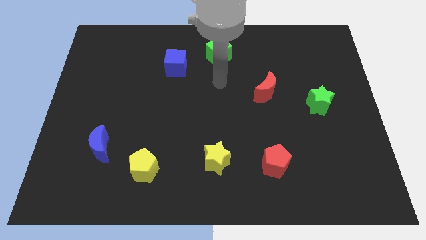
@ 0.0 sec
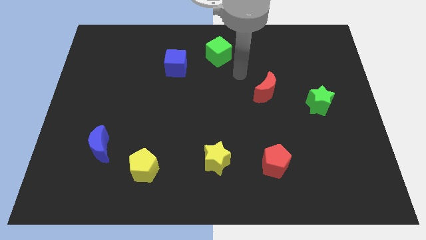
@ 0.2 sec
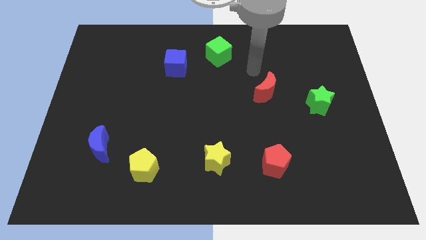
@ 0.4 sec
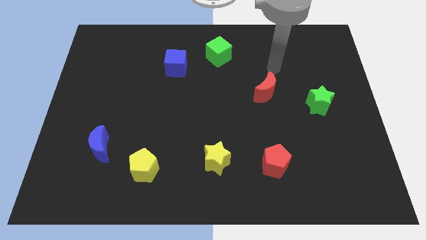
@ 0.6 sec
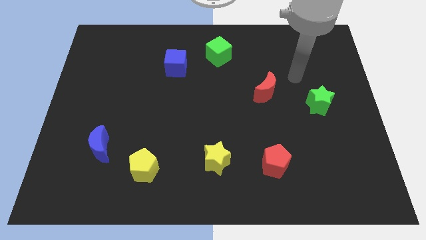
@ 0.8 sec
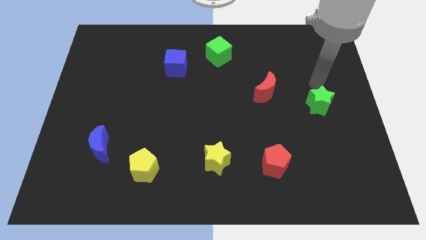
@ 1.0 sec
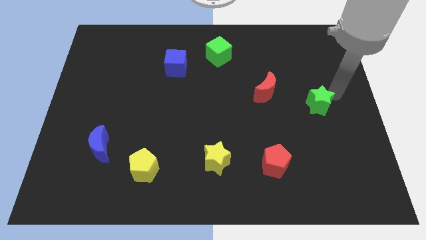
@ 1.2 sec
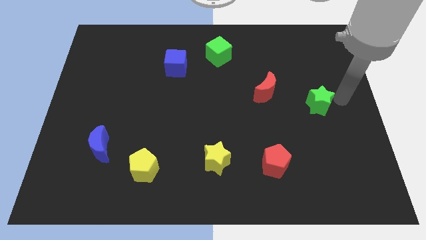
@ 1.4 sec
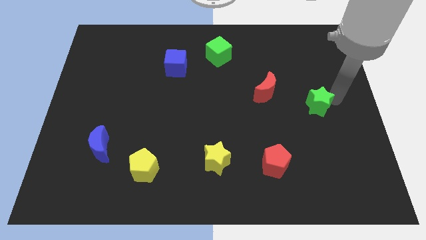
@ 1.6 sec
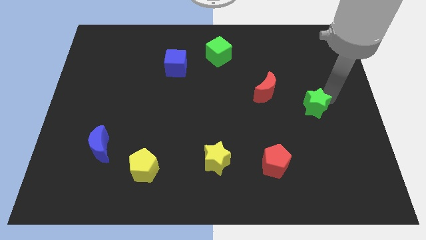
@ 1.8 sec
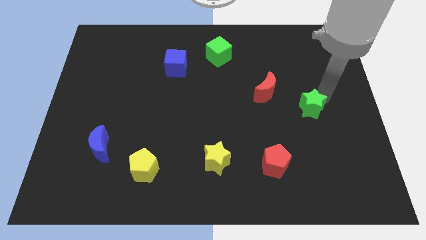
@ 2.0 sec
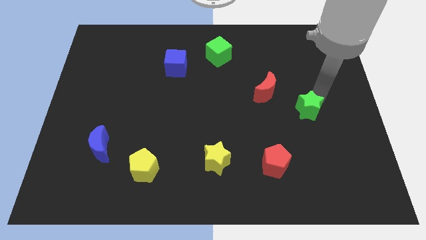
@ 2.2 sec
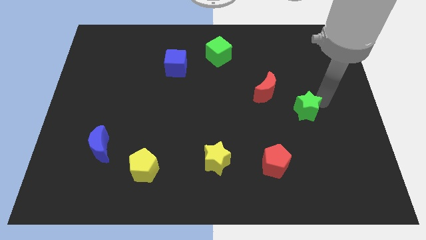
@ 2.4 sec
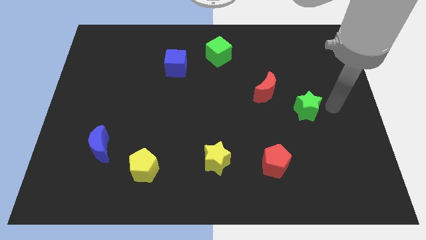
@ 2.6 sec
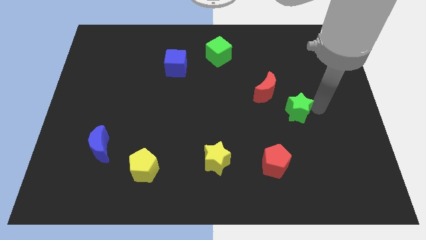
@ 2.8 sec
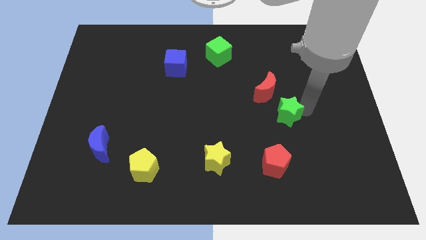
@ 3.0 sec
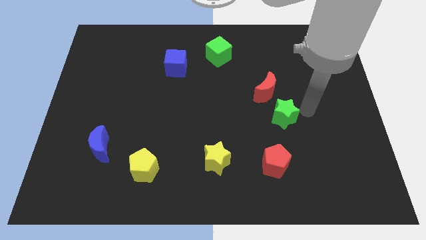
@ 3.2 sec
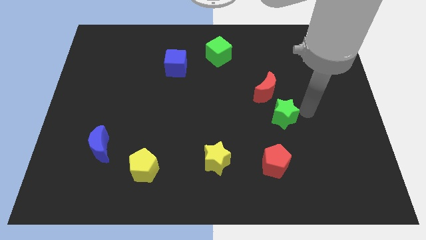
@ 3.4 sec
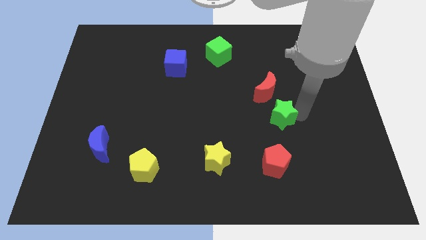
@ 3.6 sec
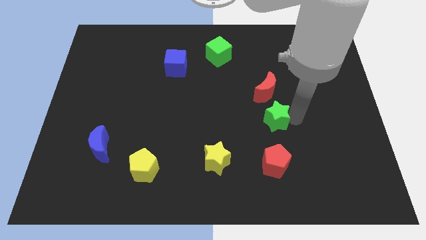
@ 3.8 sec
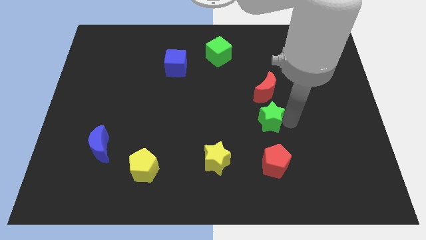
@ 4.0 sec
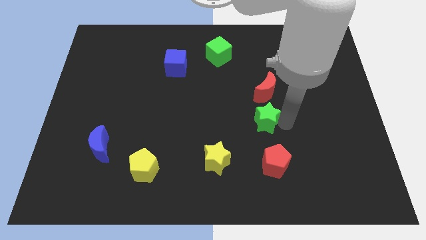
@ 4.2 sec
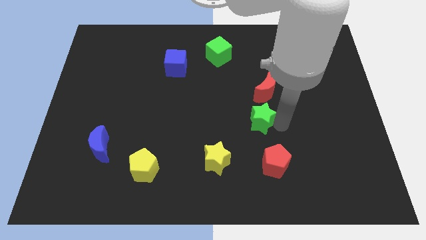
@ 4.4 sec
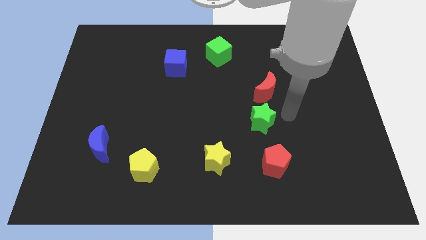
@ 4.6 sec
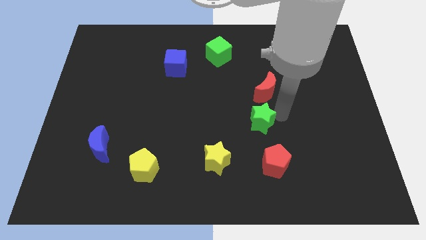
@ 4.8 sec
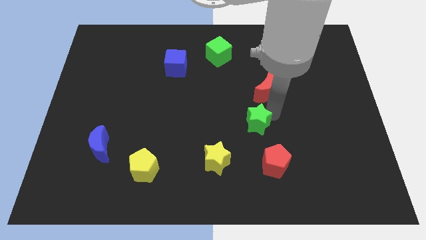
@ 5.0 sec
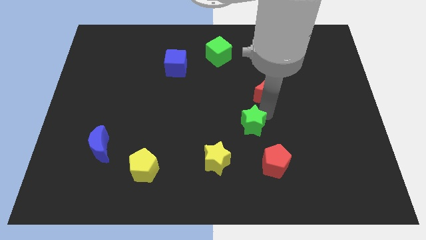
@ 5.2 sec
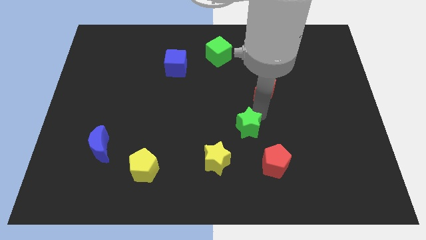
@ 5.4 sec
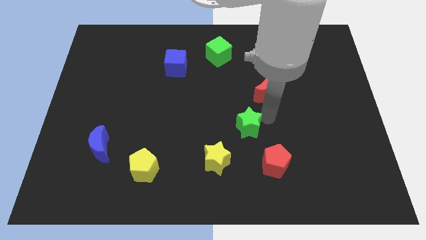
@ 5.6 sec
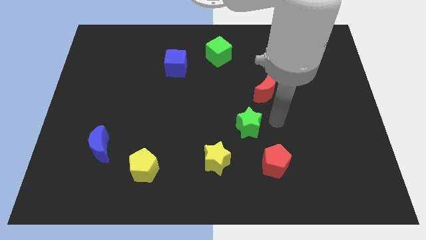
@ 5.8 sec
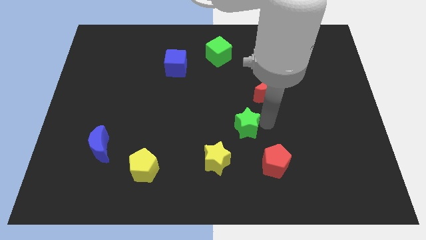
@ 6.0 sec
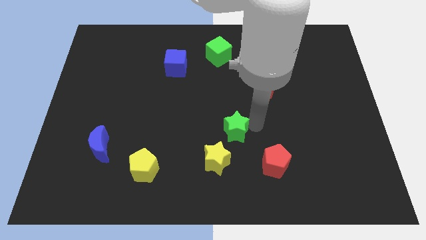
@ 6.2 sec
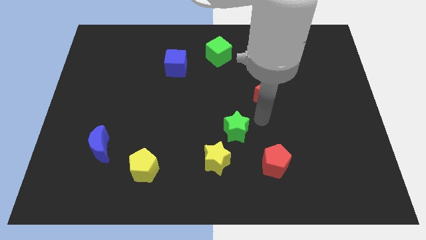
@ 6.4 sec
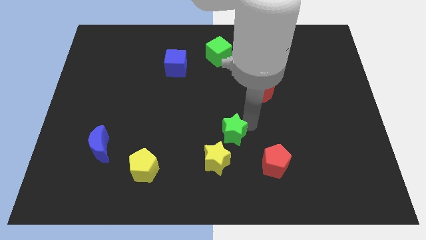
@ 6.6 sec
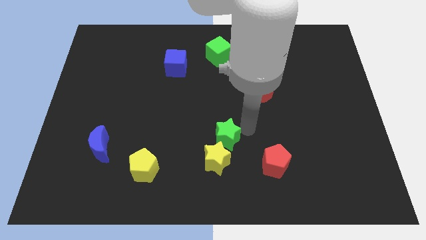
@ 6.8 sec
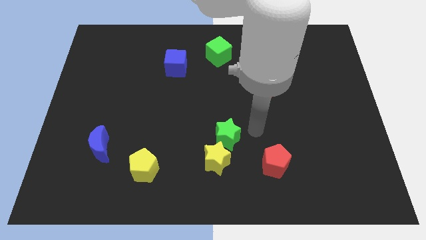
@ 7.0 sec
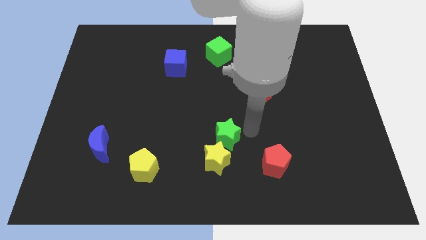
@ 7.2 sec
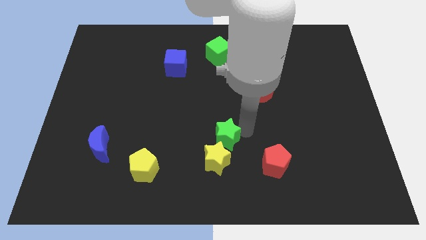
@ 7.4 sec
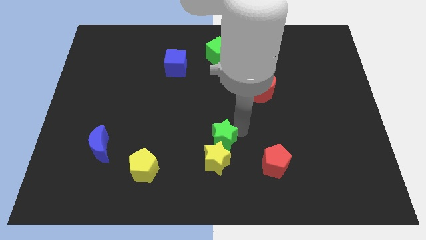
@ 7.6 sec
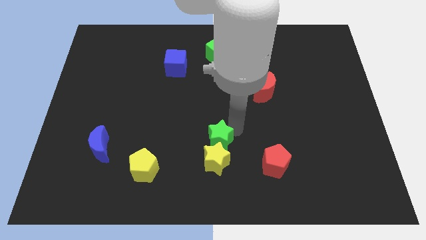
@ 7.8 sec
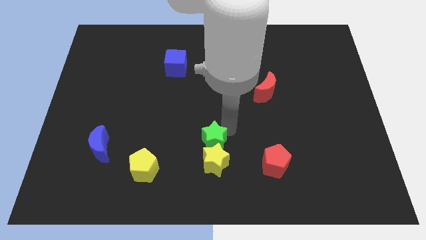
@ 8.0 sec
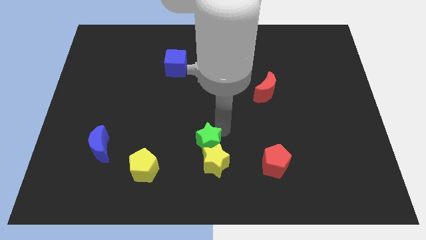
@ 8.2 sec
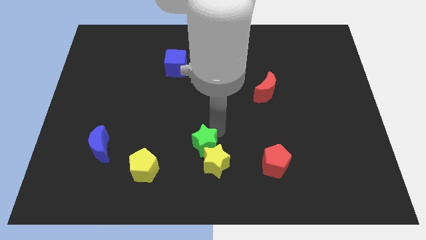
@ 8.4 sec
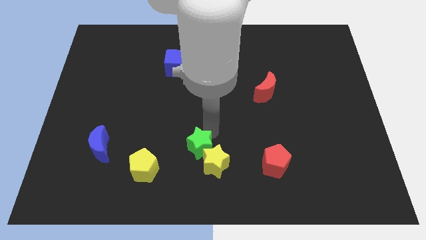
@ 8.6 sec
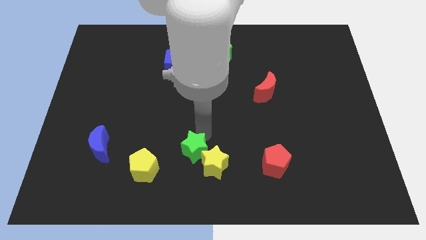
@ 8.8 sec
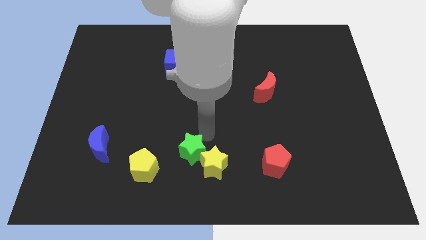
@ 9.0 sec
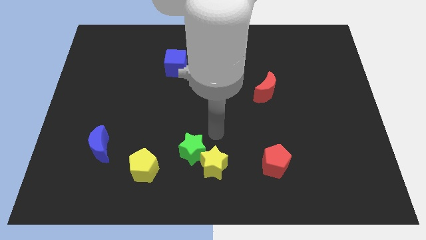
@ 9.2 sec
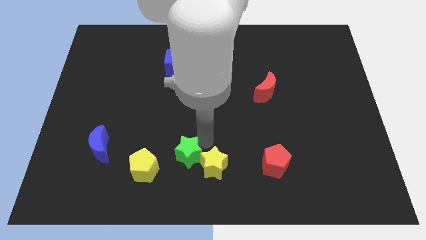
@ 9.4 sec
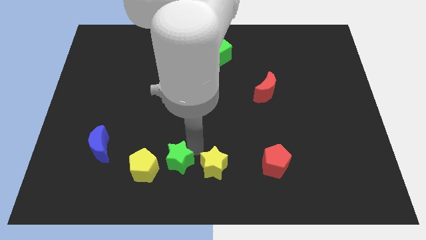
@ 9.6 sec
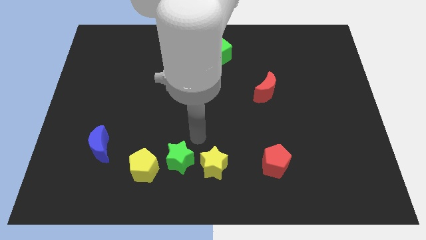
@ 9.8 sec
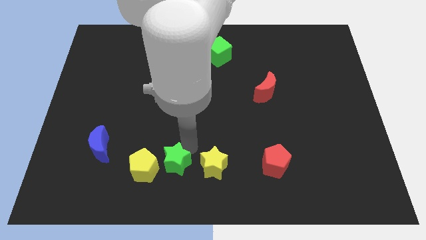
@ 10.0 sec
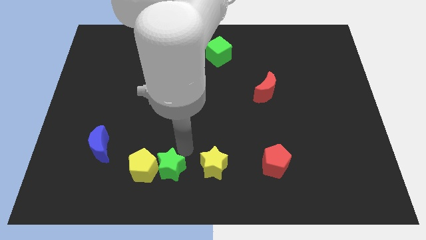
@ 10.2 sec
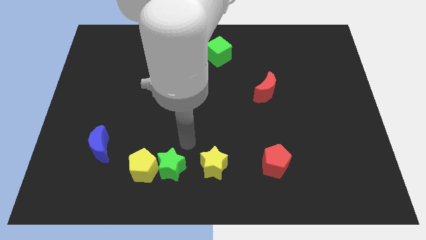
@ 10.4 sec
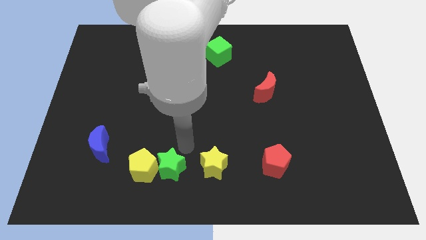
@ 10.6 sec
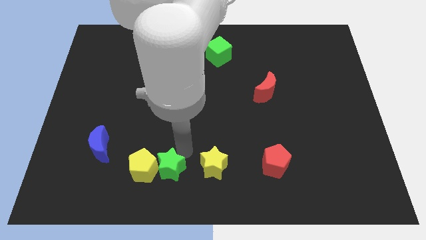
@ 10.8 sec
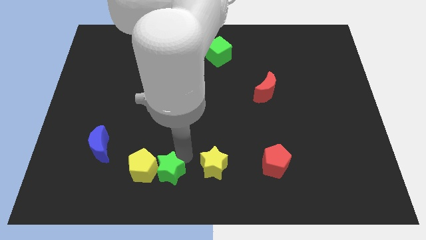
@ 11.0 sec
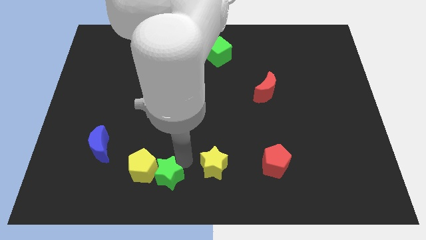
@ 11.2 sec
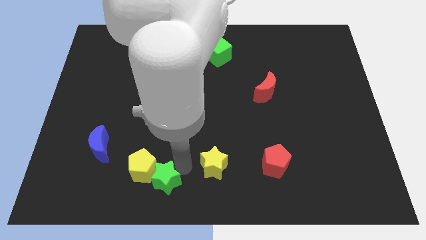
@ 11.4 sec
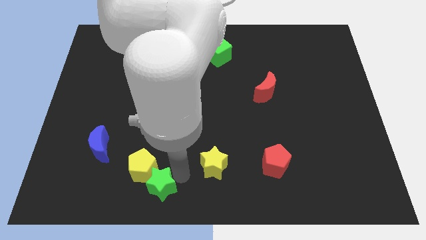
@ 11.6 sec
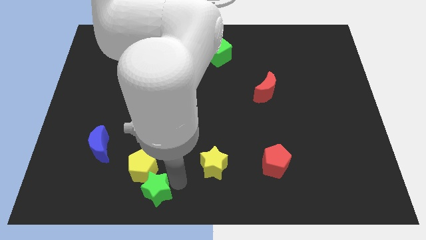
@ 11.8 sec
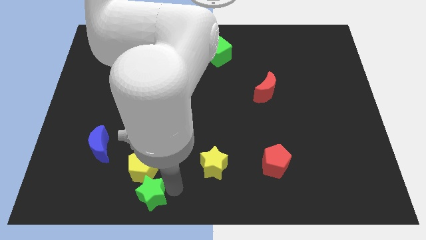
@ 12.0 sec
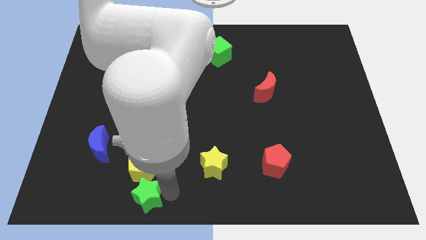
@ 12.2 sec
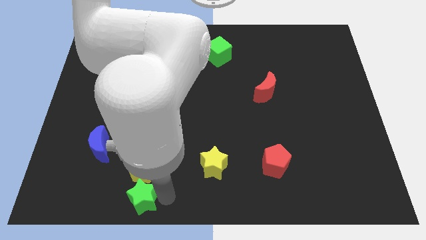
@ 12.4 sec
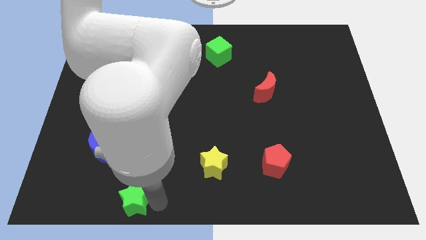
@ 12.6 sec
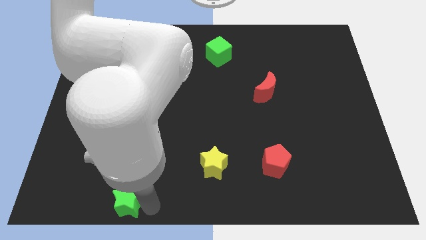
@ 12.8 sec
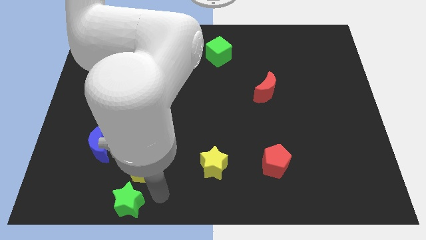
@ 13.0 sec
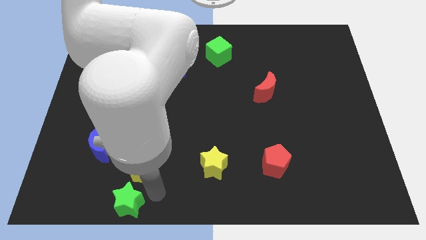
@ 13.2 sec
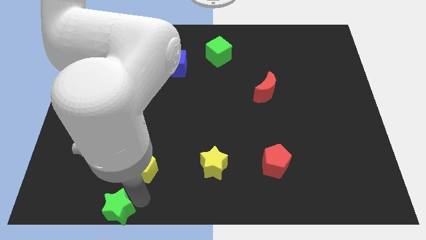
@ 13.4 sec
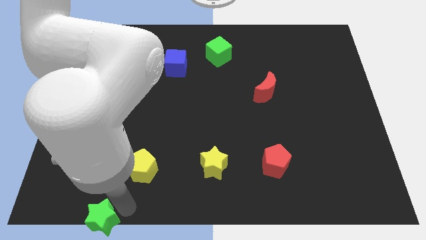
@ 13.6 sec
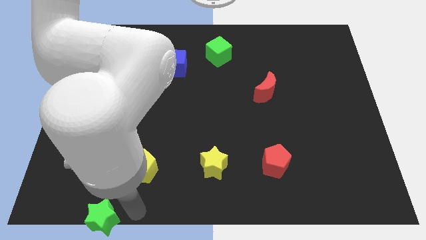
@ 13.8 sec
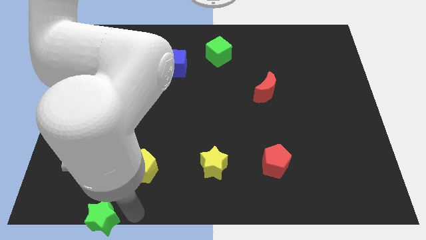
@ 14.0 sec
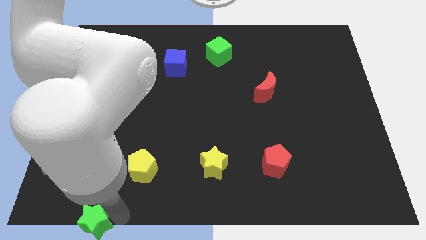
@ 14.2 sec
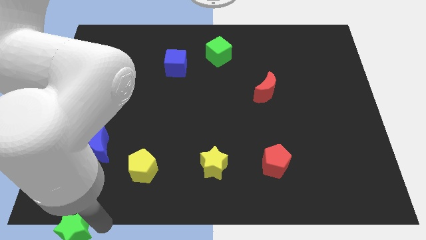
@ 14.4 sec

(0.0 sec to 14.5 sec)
move the green star to the bottom left
